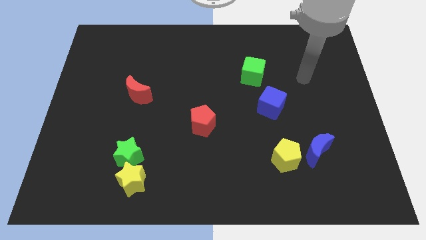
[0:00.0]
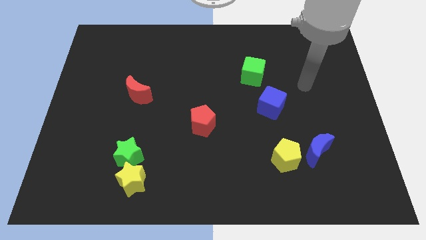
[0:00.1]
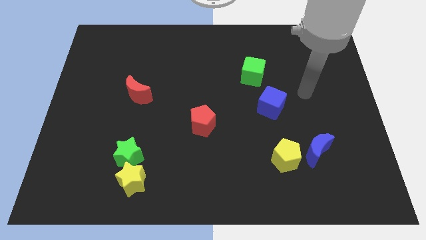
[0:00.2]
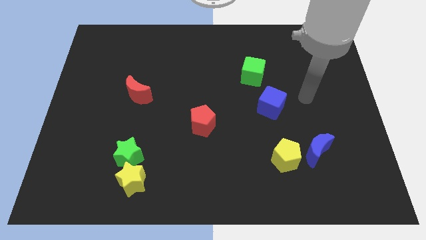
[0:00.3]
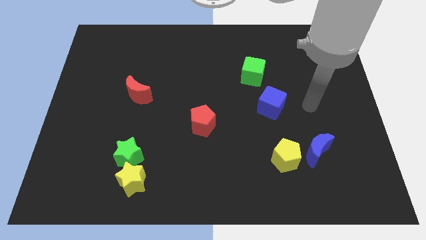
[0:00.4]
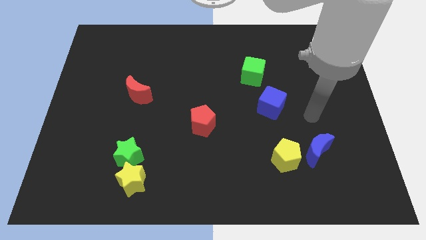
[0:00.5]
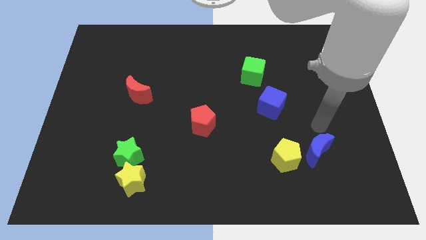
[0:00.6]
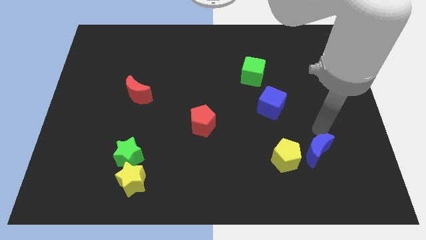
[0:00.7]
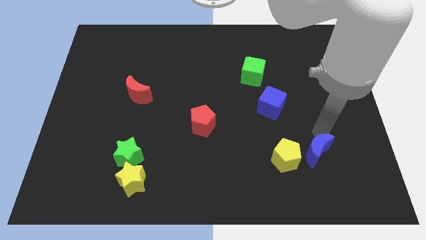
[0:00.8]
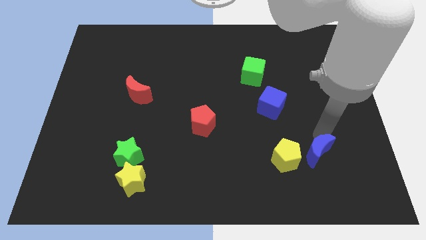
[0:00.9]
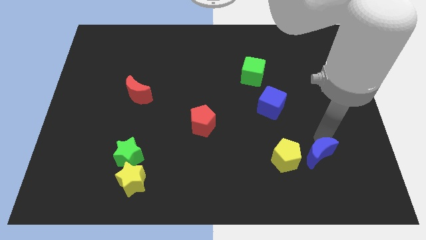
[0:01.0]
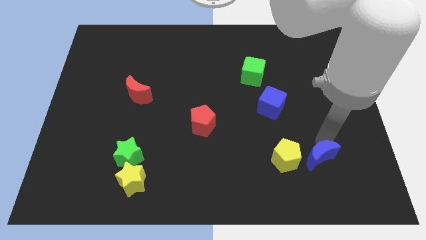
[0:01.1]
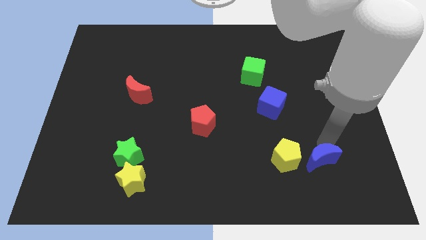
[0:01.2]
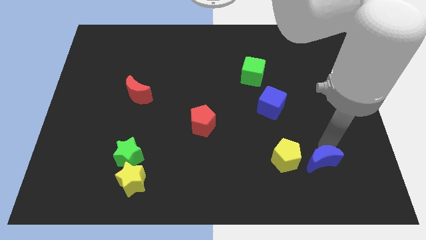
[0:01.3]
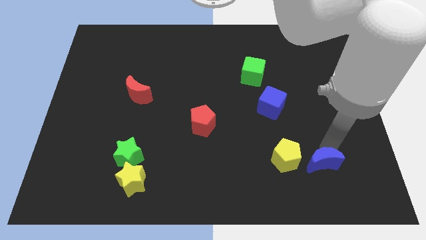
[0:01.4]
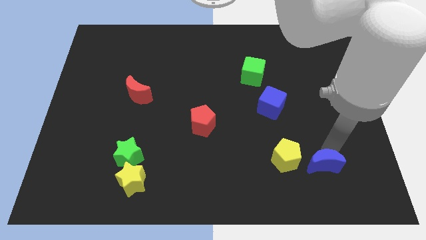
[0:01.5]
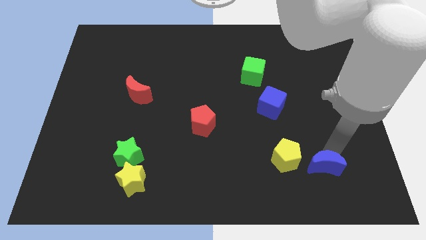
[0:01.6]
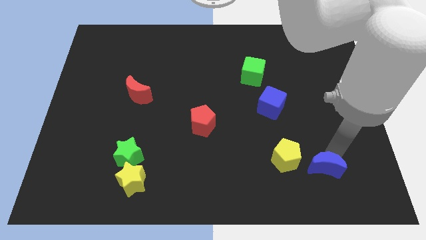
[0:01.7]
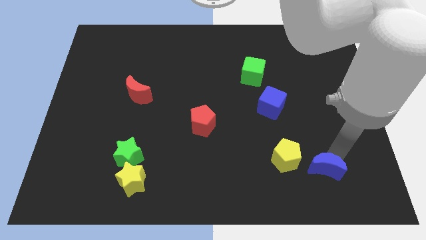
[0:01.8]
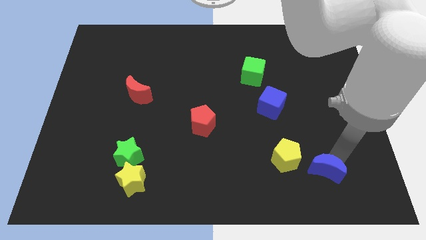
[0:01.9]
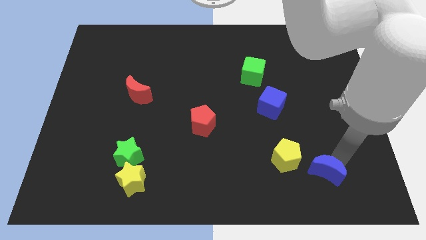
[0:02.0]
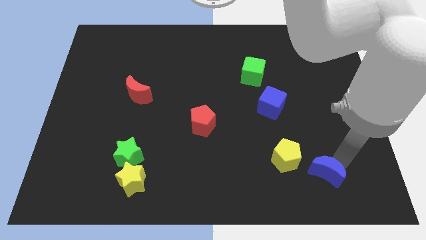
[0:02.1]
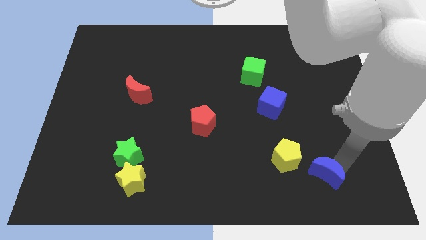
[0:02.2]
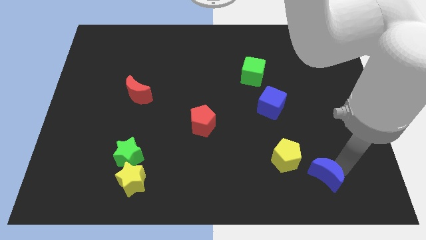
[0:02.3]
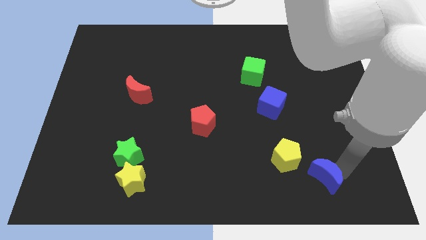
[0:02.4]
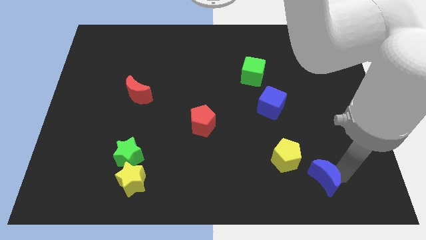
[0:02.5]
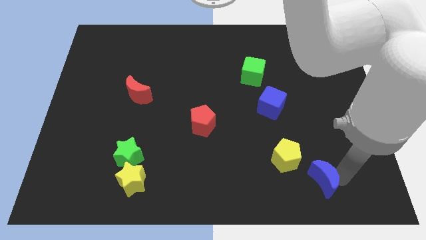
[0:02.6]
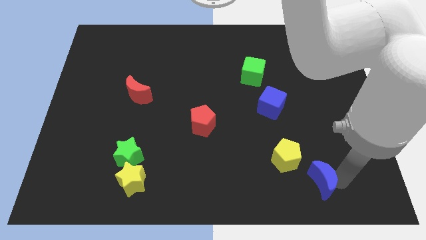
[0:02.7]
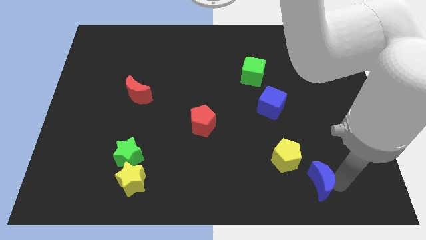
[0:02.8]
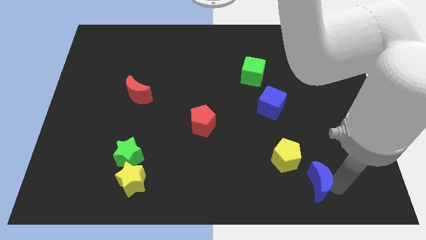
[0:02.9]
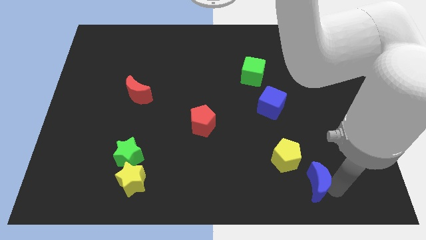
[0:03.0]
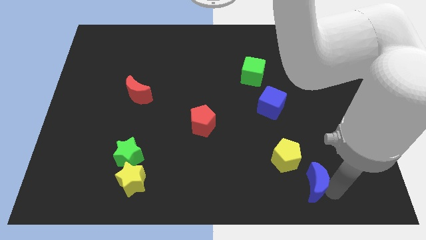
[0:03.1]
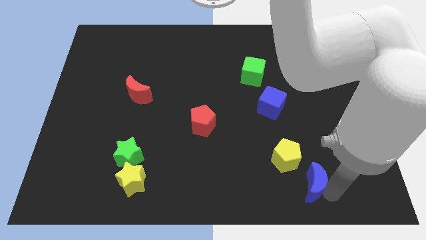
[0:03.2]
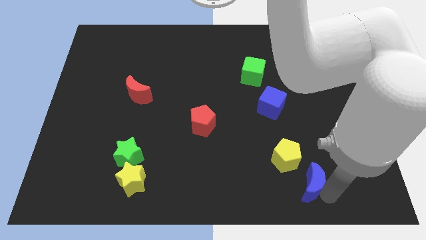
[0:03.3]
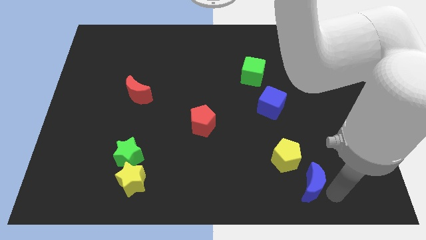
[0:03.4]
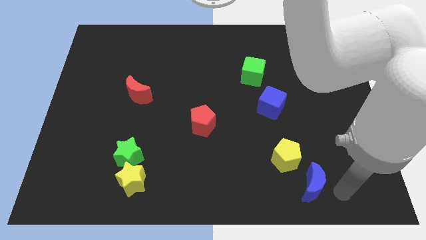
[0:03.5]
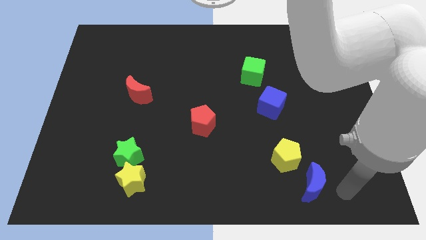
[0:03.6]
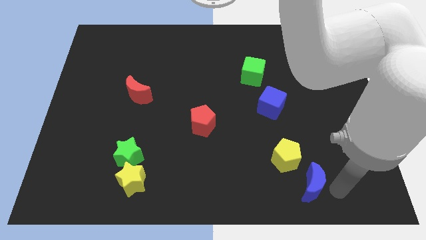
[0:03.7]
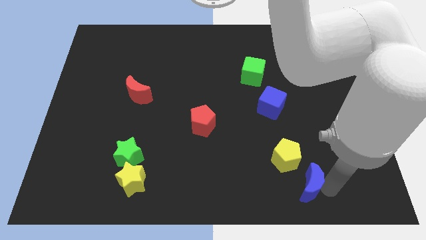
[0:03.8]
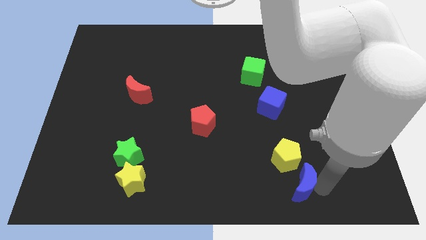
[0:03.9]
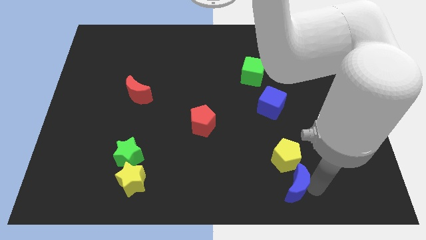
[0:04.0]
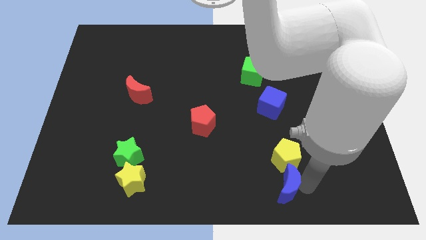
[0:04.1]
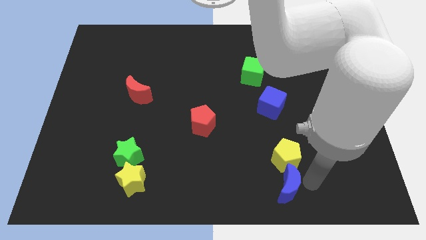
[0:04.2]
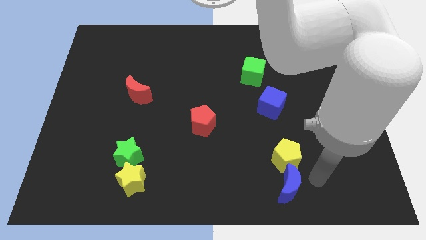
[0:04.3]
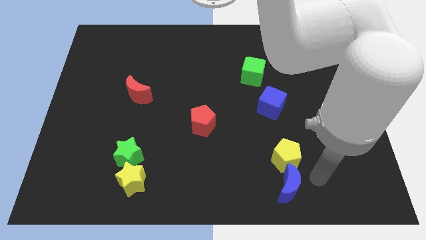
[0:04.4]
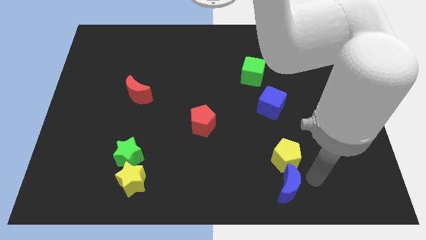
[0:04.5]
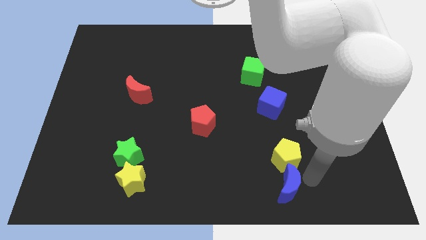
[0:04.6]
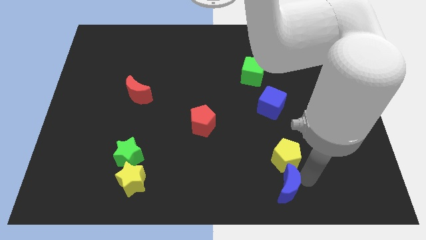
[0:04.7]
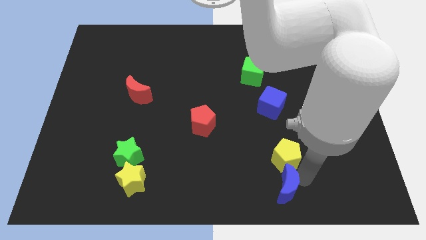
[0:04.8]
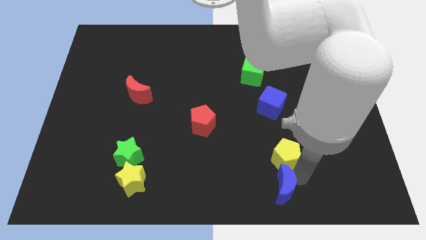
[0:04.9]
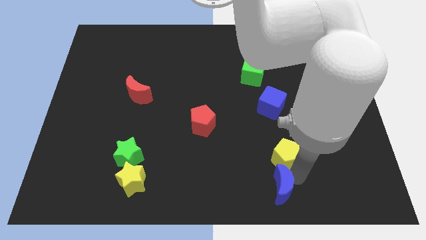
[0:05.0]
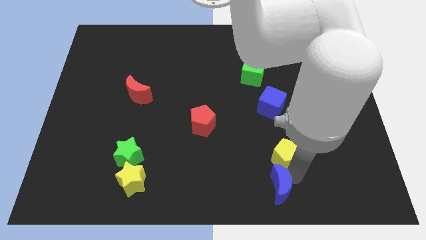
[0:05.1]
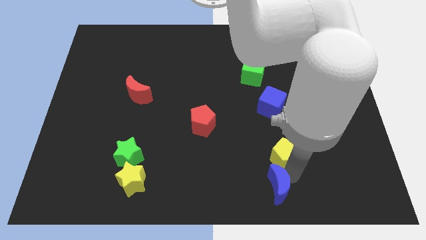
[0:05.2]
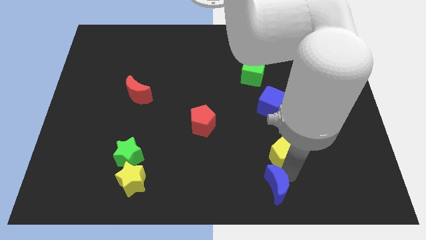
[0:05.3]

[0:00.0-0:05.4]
push the blue moon to the bottom

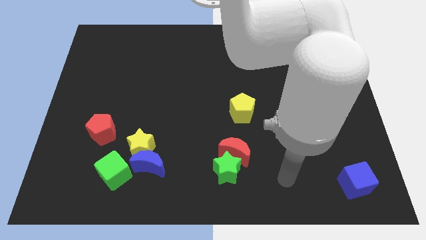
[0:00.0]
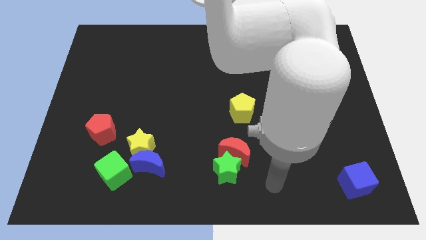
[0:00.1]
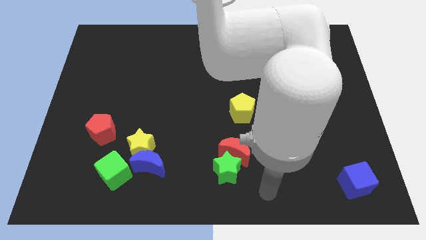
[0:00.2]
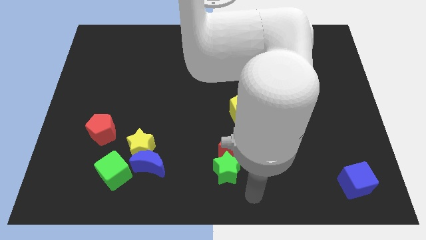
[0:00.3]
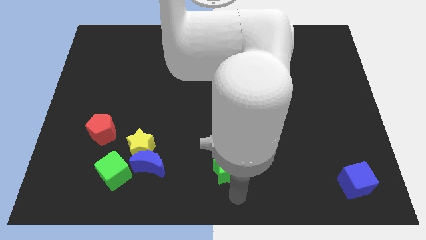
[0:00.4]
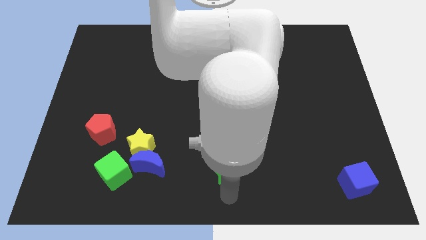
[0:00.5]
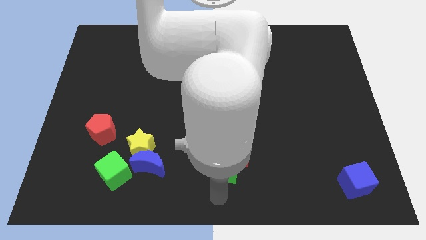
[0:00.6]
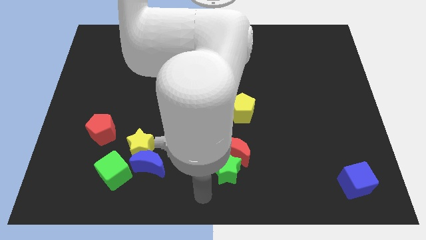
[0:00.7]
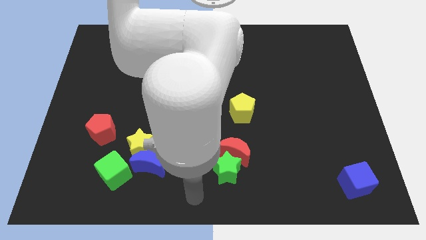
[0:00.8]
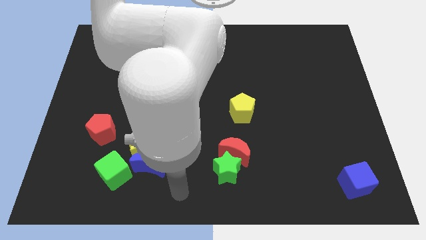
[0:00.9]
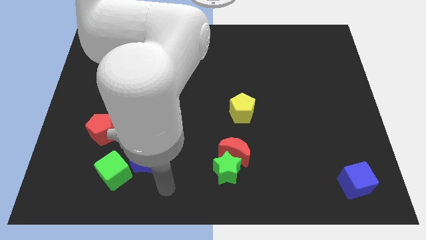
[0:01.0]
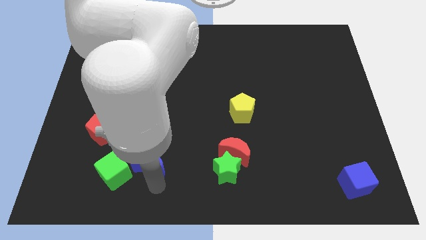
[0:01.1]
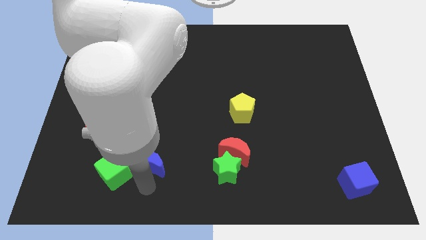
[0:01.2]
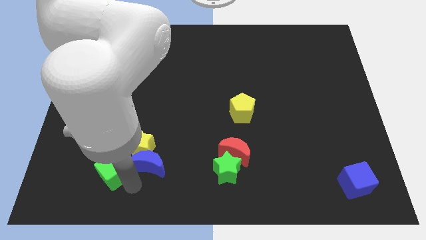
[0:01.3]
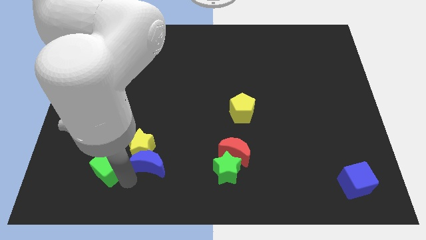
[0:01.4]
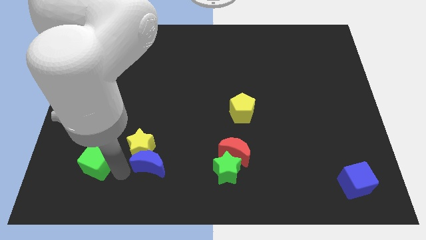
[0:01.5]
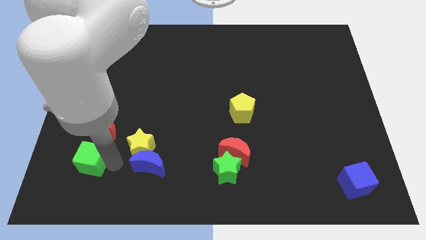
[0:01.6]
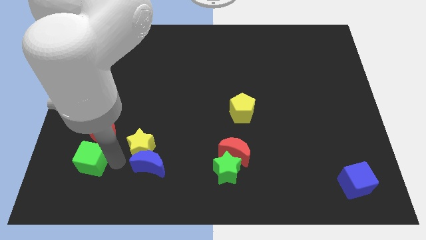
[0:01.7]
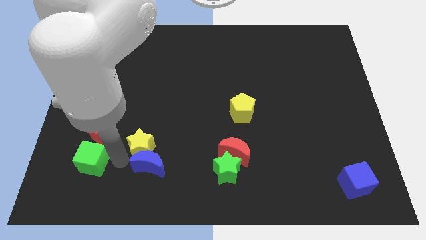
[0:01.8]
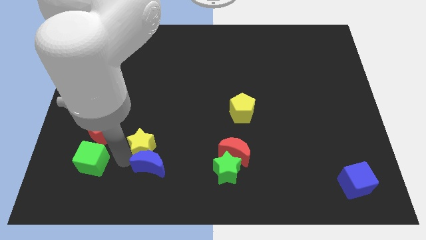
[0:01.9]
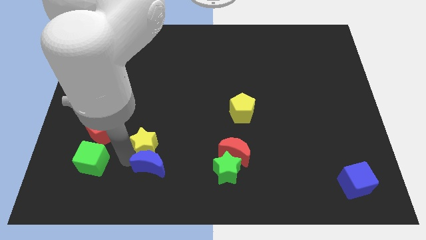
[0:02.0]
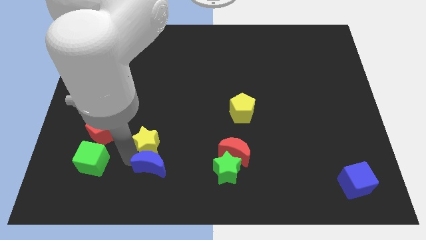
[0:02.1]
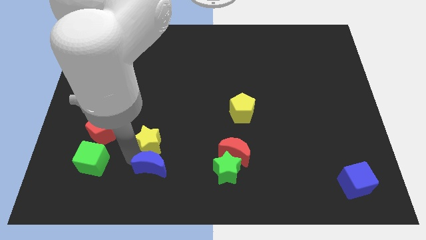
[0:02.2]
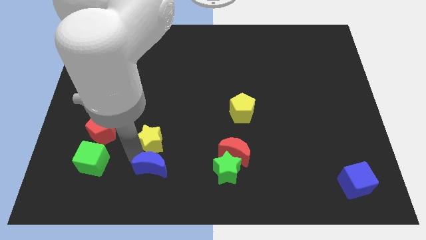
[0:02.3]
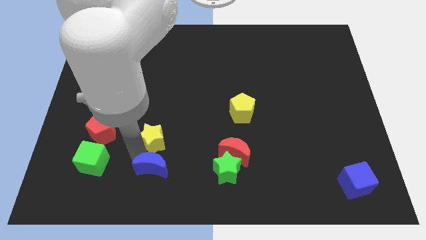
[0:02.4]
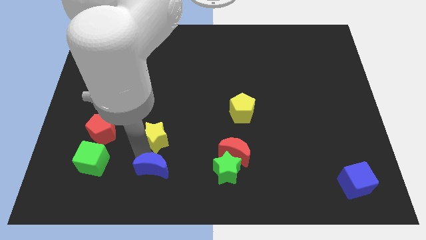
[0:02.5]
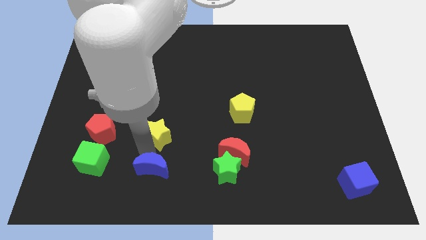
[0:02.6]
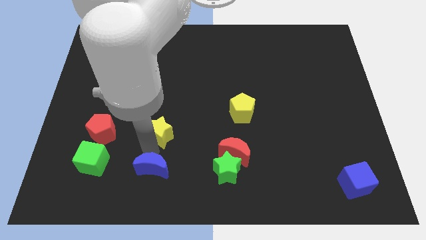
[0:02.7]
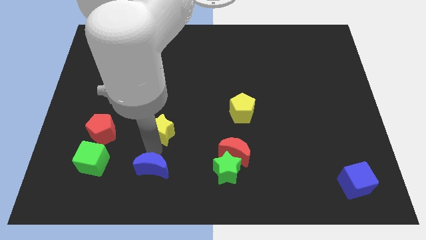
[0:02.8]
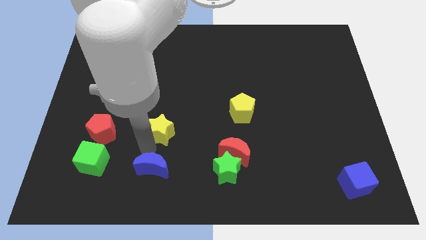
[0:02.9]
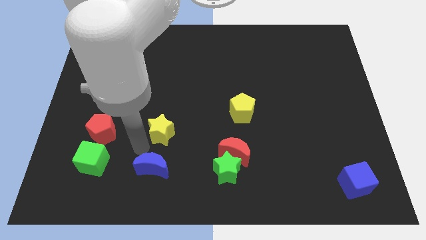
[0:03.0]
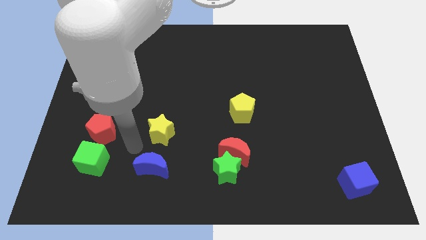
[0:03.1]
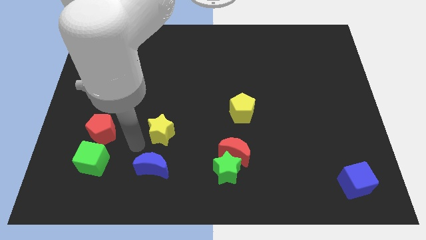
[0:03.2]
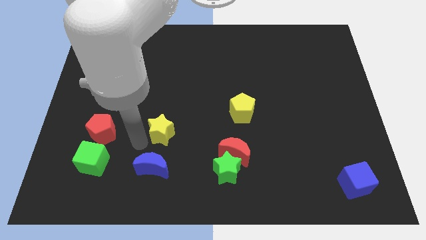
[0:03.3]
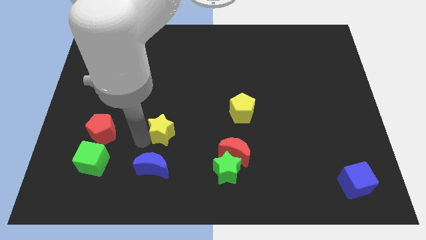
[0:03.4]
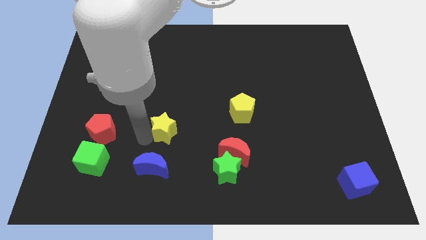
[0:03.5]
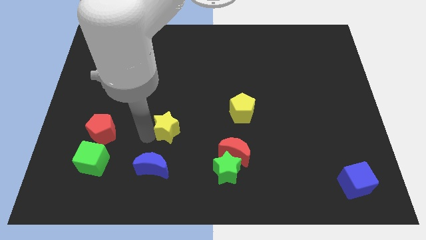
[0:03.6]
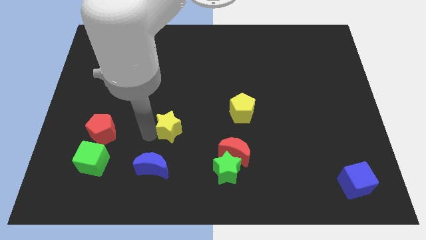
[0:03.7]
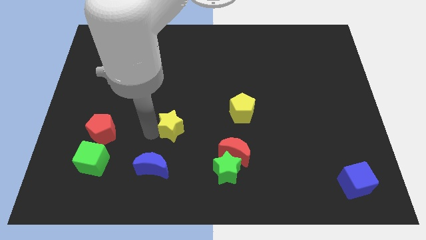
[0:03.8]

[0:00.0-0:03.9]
slide the yellow star to the middle
